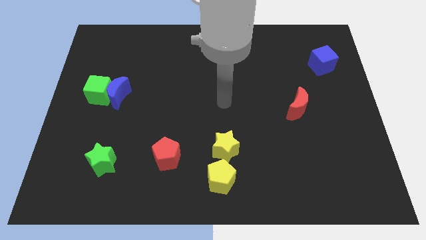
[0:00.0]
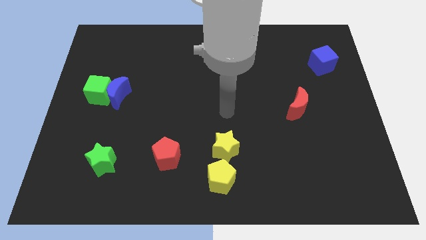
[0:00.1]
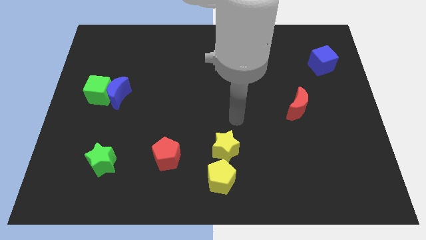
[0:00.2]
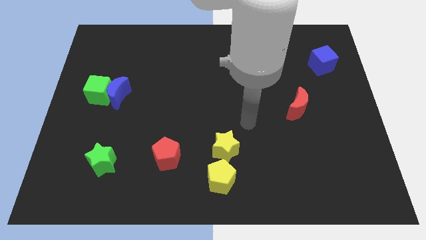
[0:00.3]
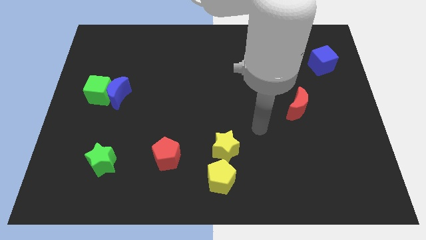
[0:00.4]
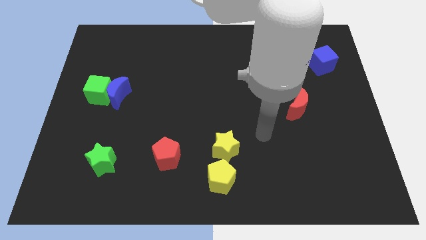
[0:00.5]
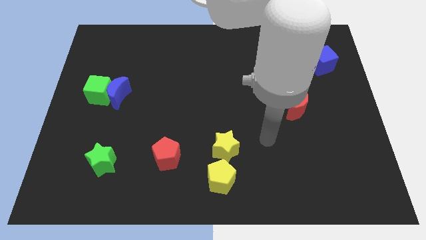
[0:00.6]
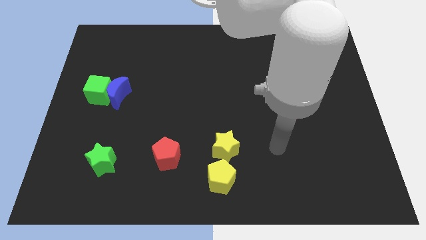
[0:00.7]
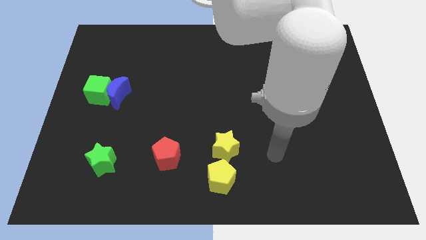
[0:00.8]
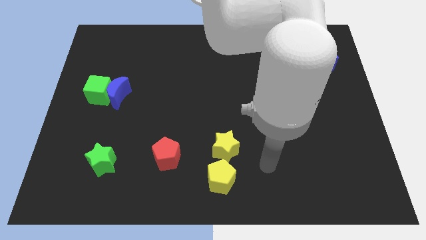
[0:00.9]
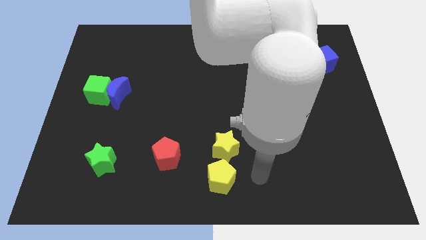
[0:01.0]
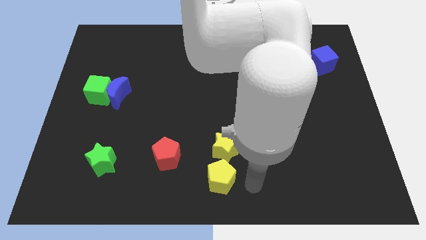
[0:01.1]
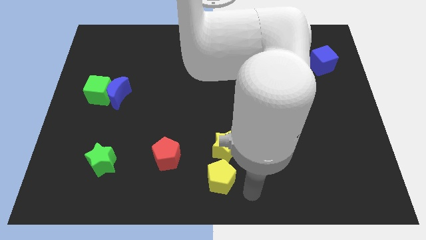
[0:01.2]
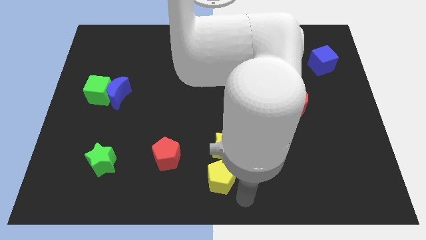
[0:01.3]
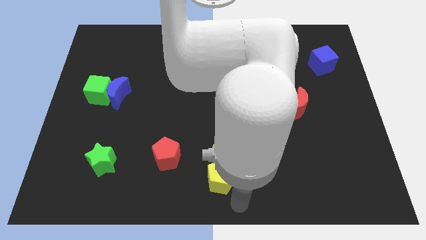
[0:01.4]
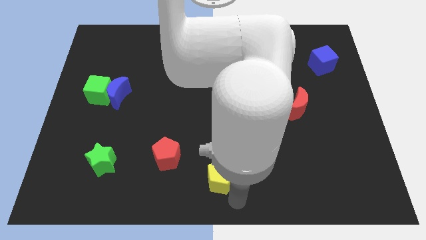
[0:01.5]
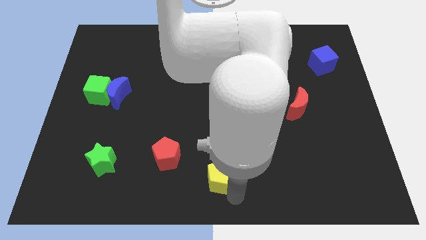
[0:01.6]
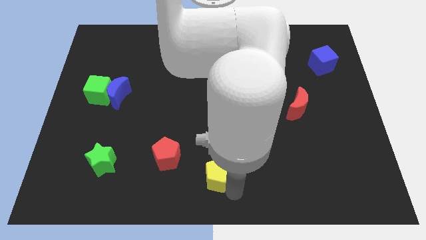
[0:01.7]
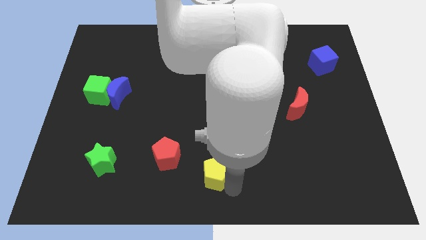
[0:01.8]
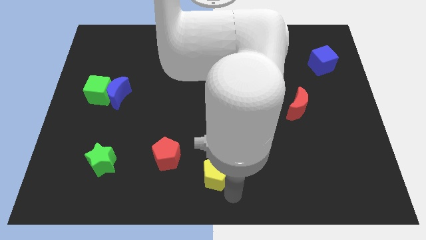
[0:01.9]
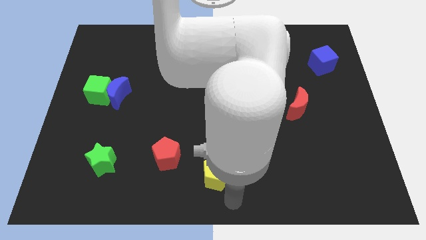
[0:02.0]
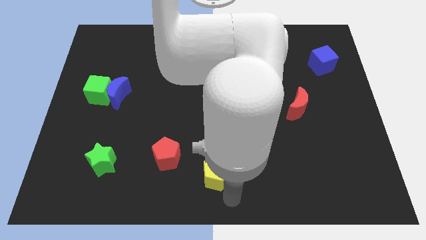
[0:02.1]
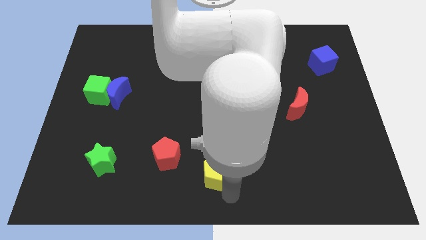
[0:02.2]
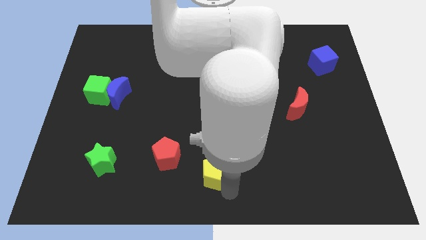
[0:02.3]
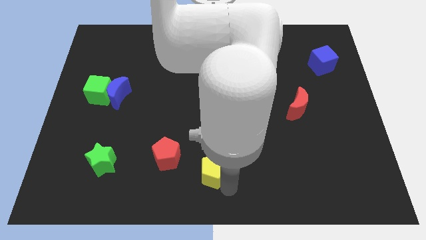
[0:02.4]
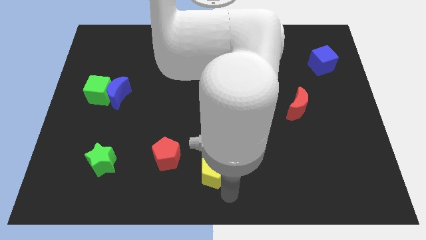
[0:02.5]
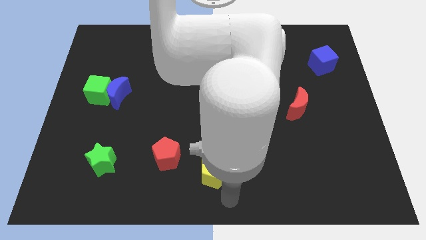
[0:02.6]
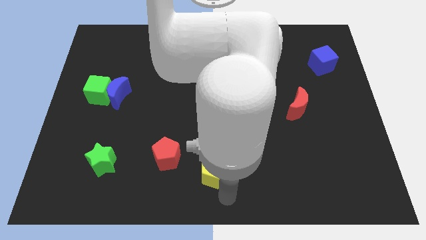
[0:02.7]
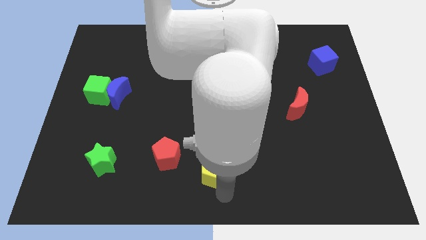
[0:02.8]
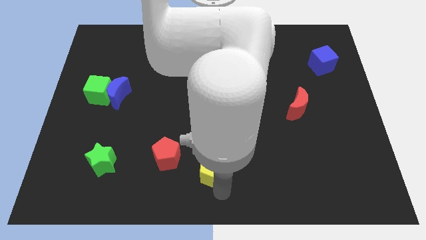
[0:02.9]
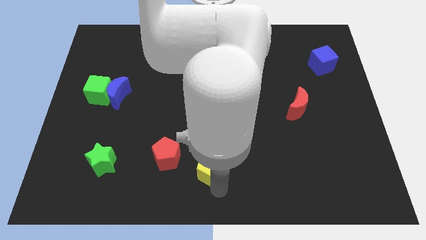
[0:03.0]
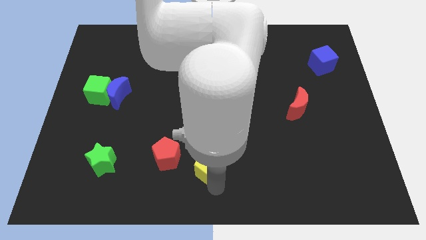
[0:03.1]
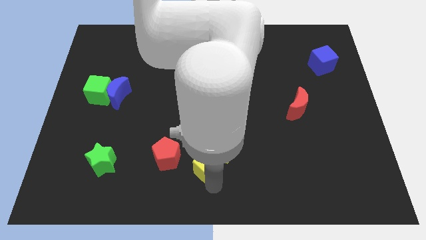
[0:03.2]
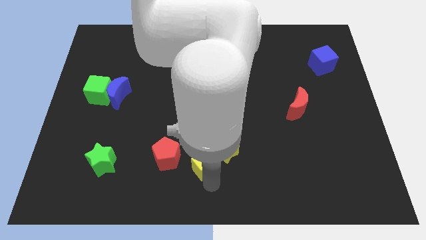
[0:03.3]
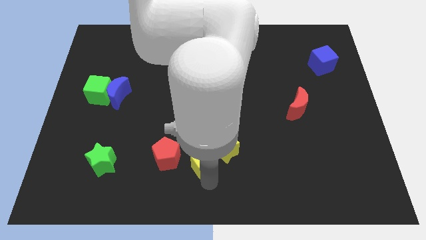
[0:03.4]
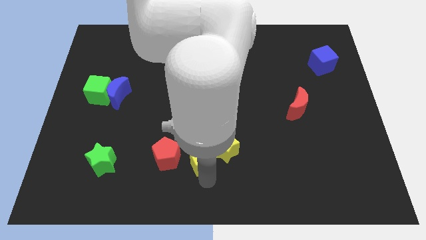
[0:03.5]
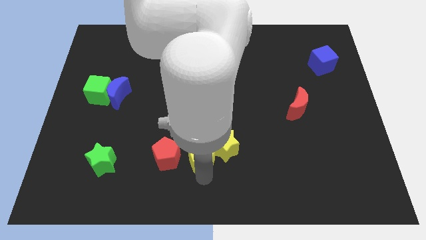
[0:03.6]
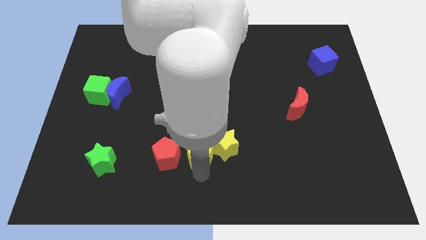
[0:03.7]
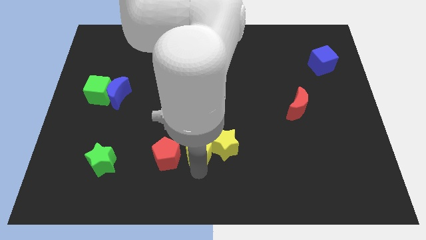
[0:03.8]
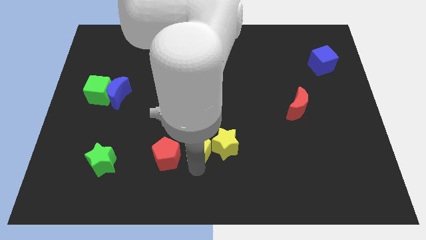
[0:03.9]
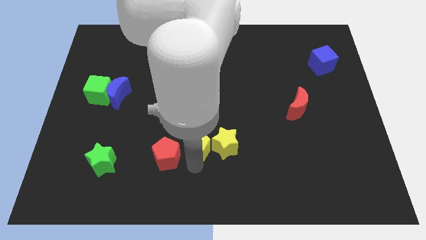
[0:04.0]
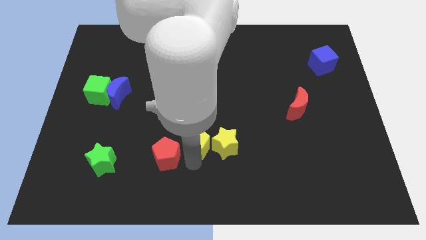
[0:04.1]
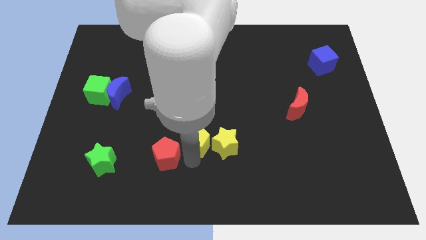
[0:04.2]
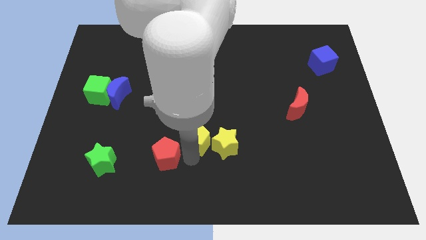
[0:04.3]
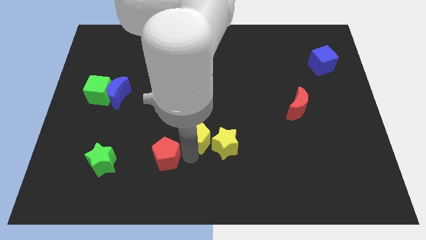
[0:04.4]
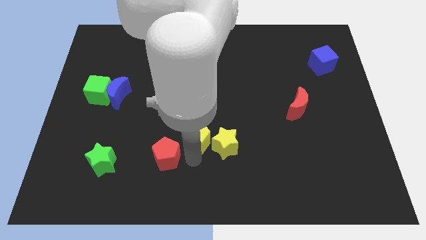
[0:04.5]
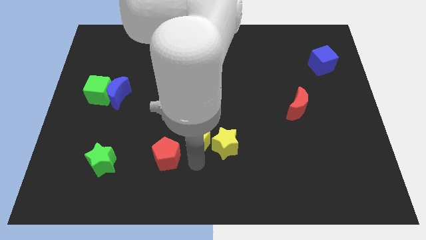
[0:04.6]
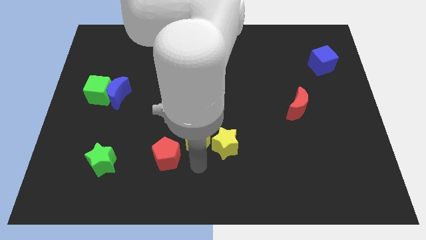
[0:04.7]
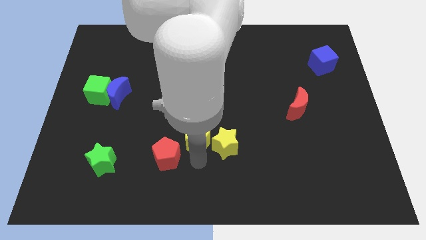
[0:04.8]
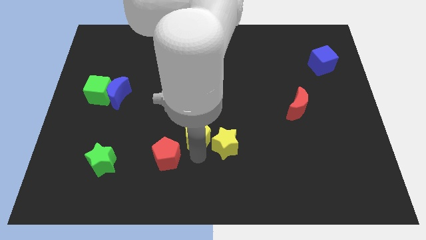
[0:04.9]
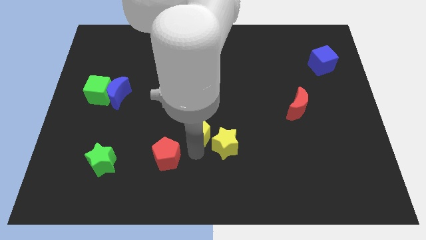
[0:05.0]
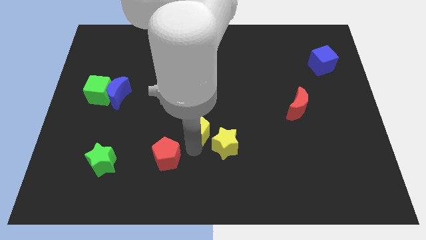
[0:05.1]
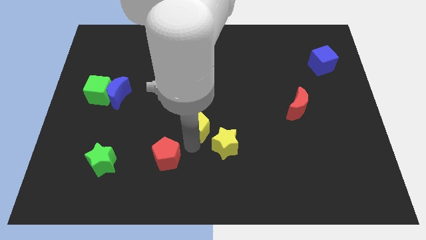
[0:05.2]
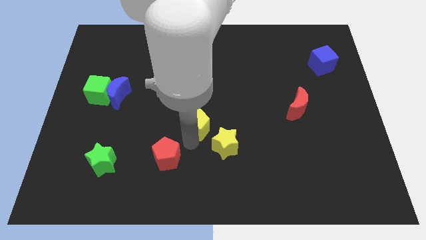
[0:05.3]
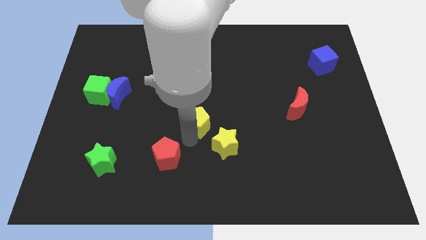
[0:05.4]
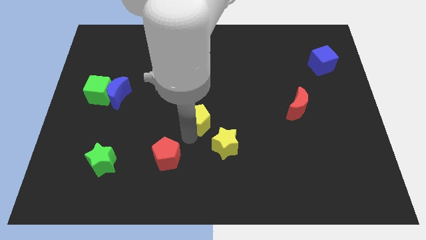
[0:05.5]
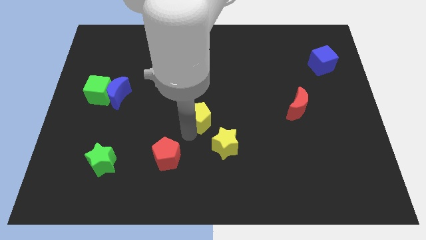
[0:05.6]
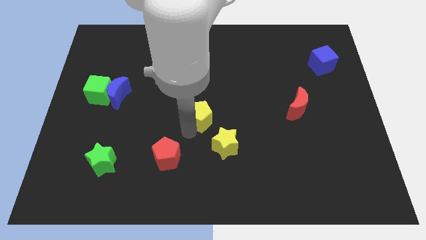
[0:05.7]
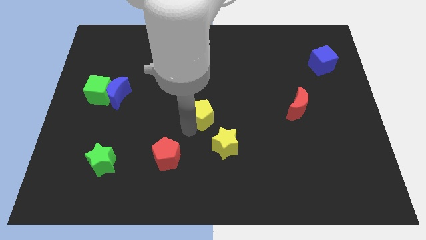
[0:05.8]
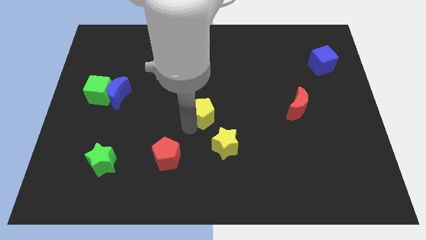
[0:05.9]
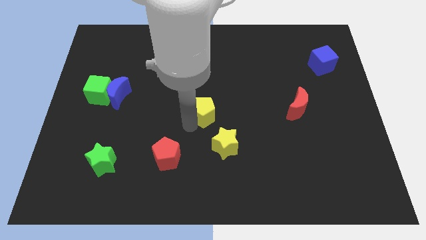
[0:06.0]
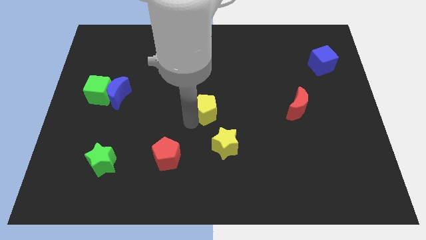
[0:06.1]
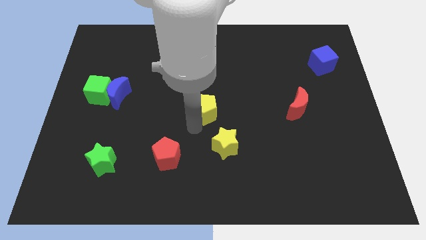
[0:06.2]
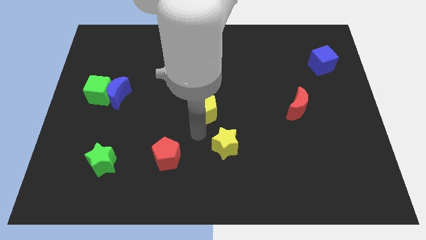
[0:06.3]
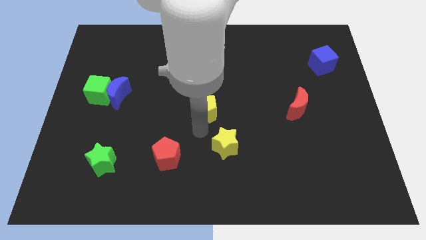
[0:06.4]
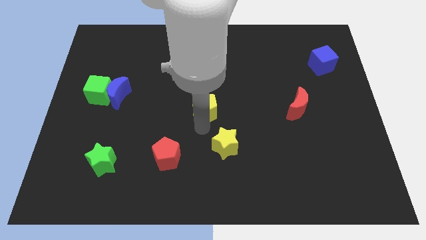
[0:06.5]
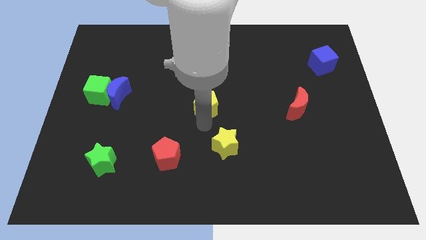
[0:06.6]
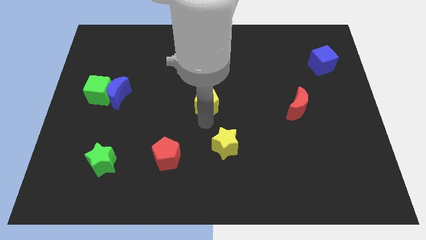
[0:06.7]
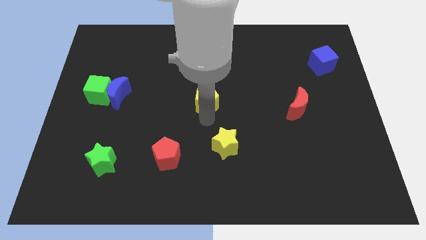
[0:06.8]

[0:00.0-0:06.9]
slide the yellow pentagon up

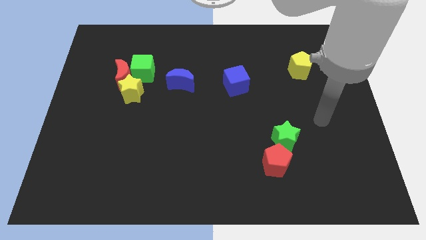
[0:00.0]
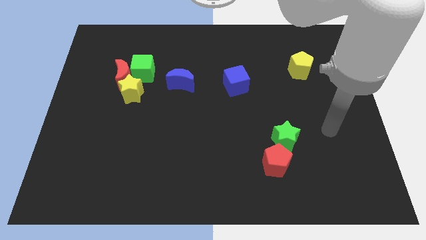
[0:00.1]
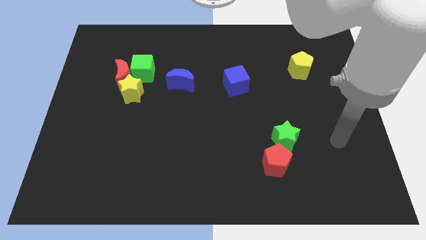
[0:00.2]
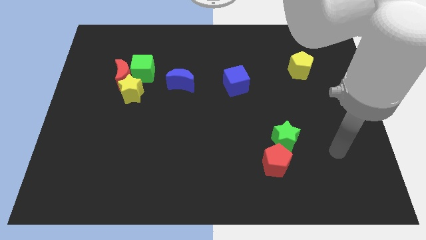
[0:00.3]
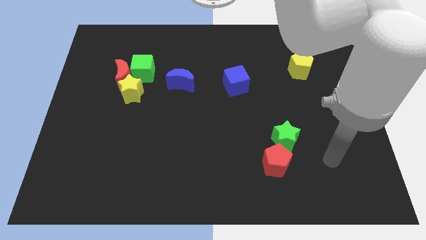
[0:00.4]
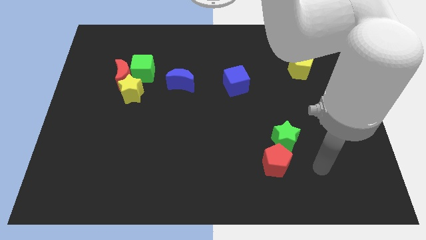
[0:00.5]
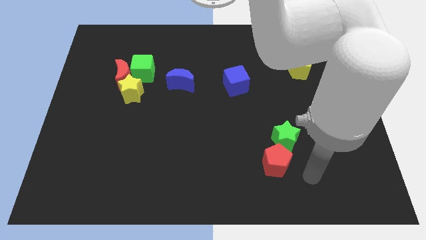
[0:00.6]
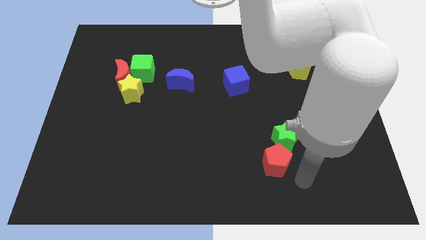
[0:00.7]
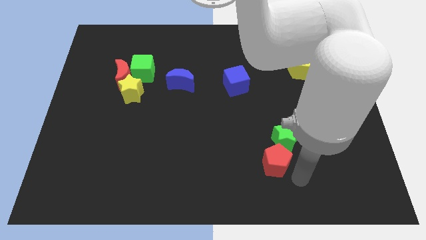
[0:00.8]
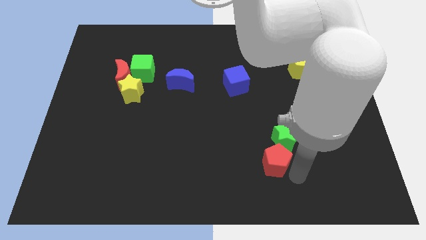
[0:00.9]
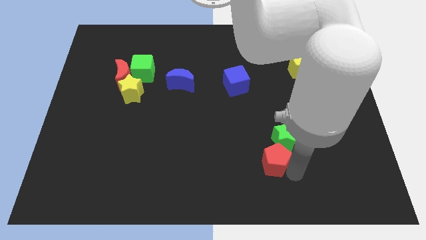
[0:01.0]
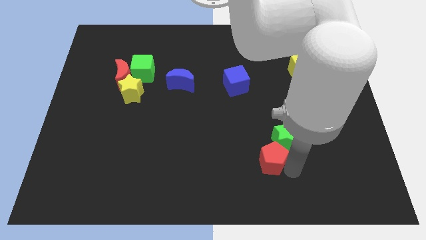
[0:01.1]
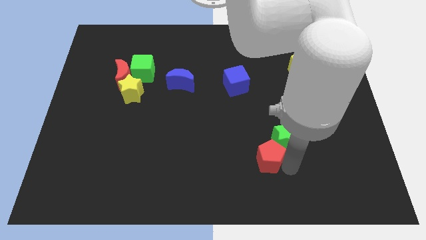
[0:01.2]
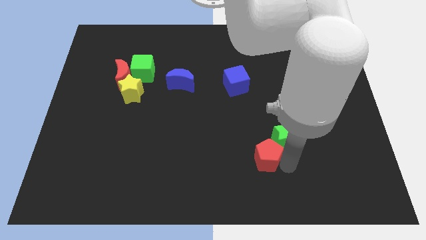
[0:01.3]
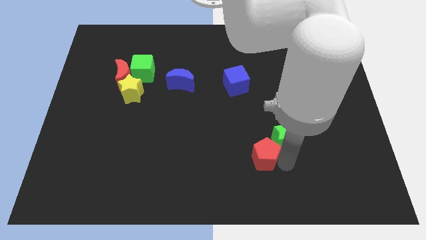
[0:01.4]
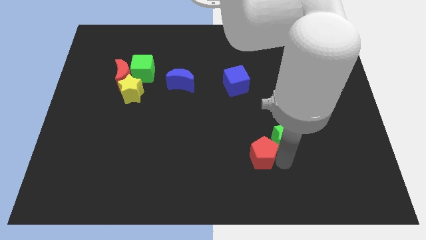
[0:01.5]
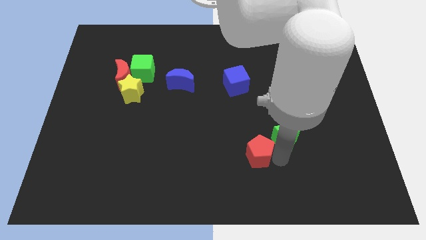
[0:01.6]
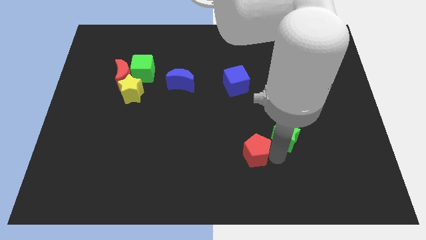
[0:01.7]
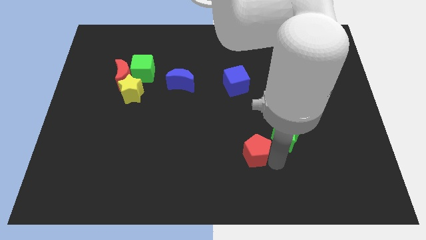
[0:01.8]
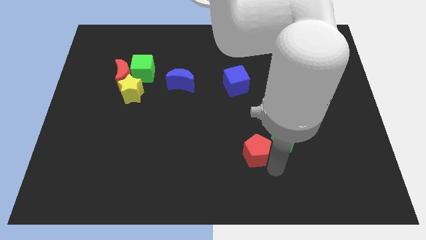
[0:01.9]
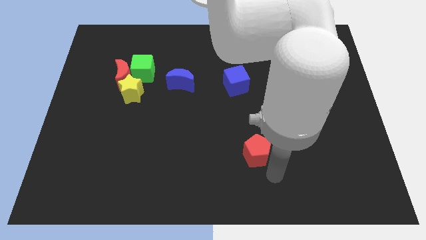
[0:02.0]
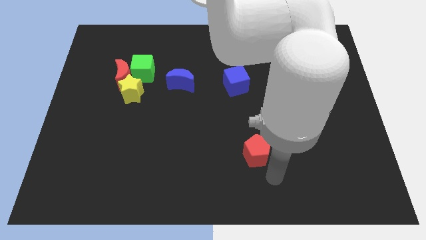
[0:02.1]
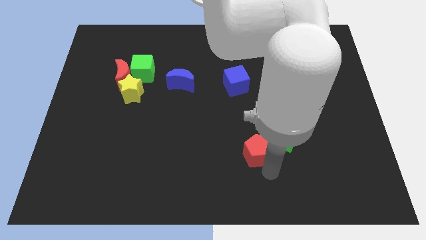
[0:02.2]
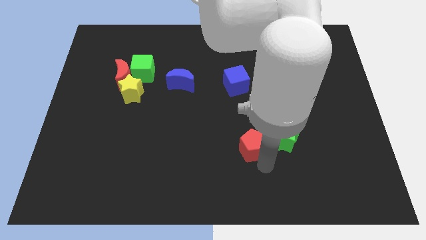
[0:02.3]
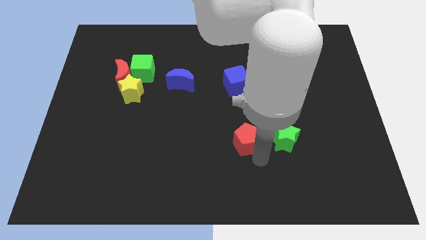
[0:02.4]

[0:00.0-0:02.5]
slide the red pentagon up and left a little bit
